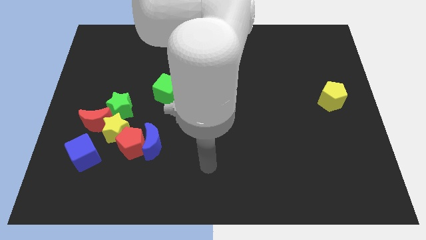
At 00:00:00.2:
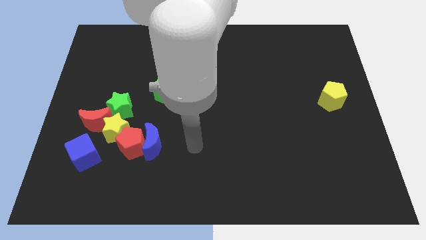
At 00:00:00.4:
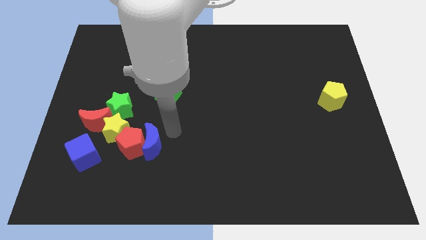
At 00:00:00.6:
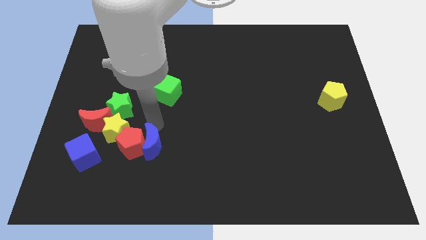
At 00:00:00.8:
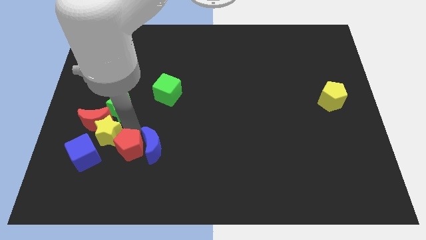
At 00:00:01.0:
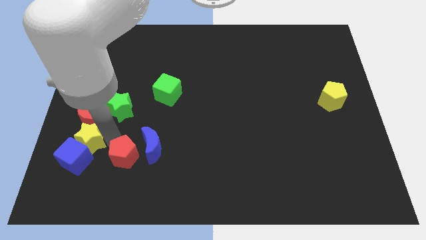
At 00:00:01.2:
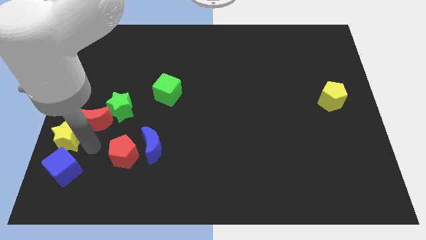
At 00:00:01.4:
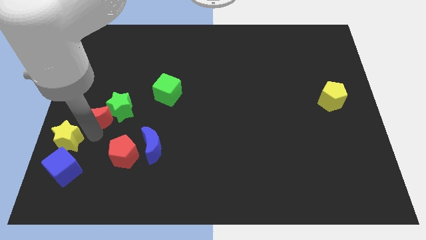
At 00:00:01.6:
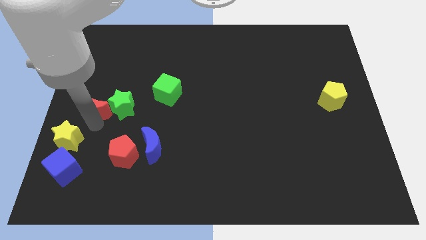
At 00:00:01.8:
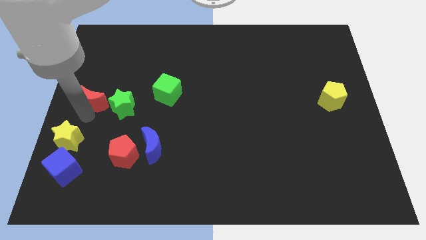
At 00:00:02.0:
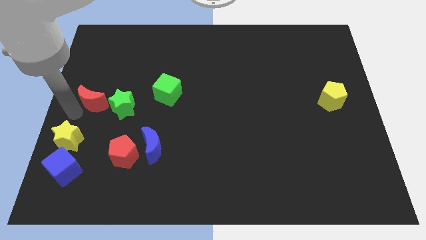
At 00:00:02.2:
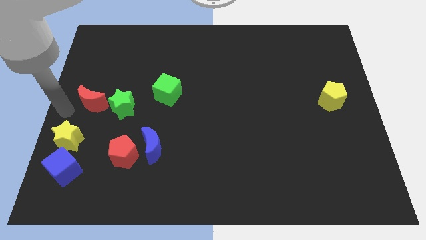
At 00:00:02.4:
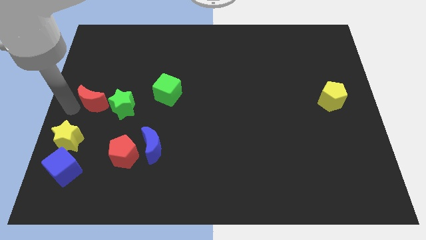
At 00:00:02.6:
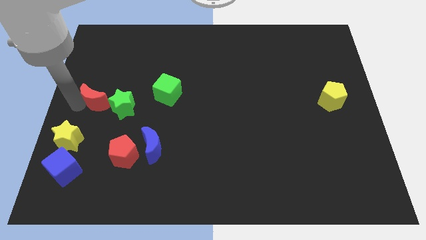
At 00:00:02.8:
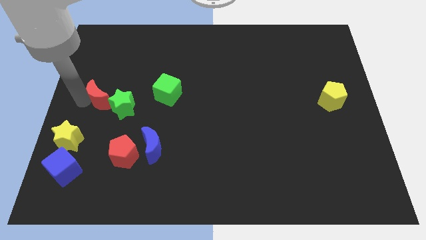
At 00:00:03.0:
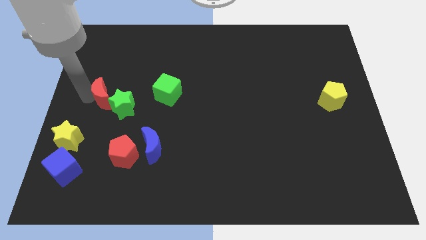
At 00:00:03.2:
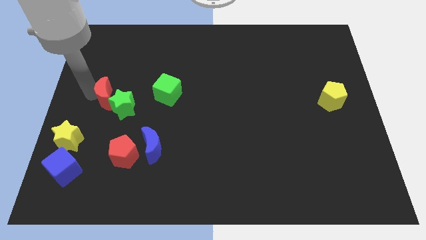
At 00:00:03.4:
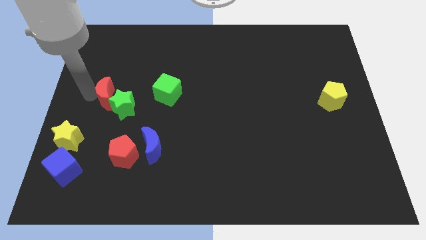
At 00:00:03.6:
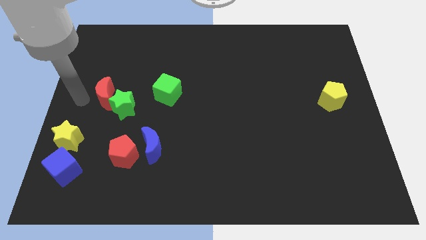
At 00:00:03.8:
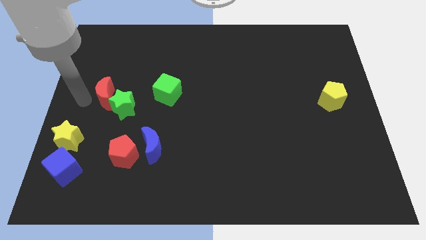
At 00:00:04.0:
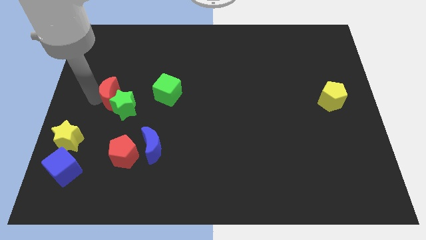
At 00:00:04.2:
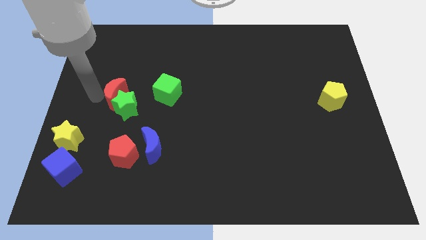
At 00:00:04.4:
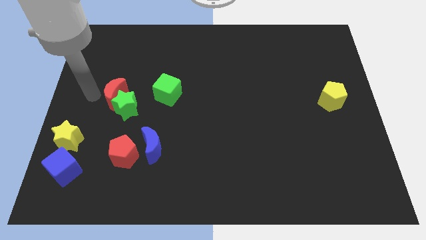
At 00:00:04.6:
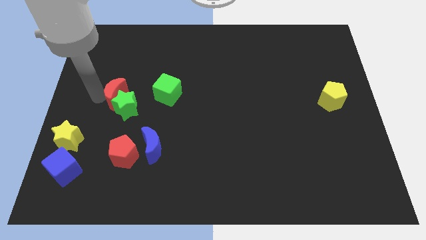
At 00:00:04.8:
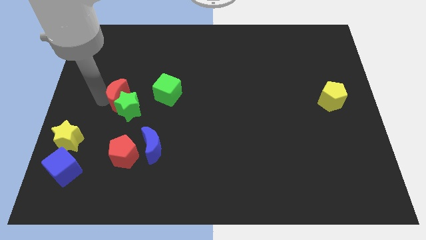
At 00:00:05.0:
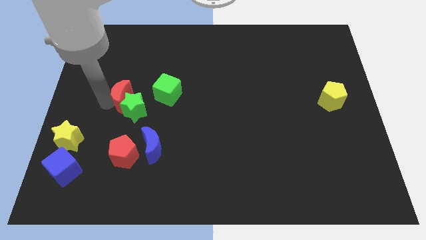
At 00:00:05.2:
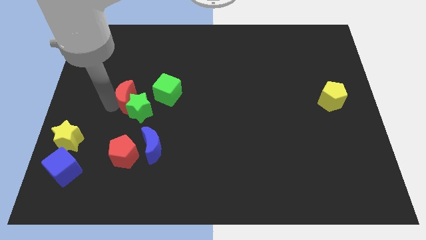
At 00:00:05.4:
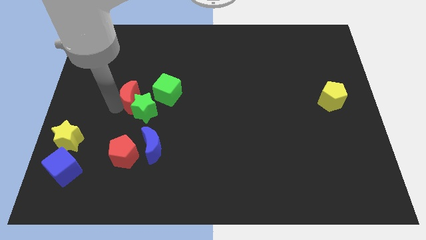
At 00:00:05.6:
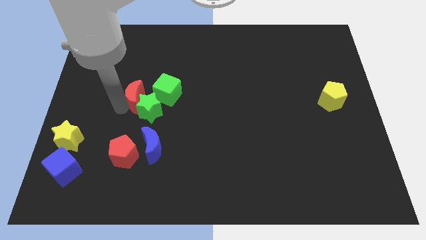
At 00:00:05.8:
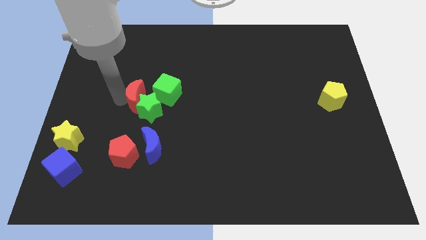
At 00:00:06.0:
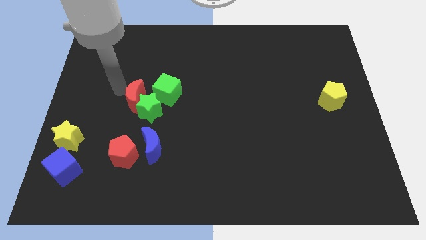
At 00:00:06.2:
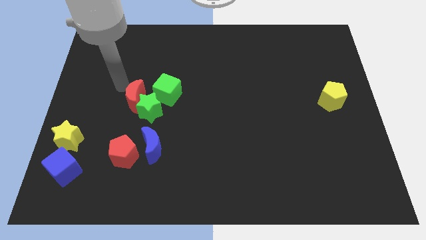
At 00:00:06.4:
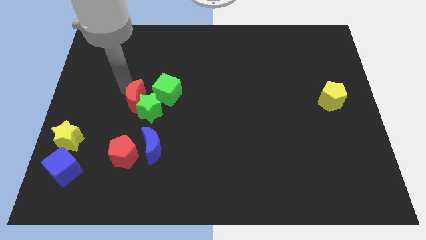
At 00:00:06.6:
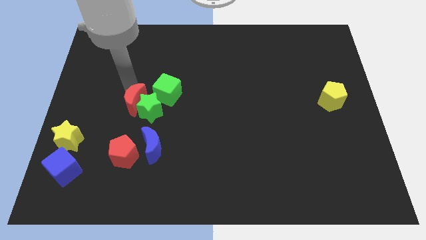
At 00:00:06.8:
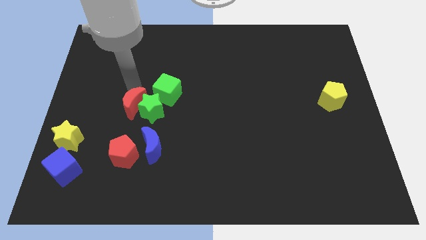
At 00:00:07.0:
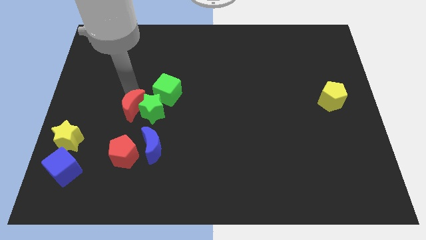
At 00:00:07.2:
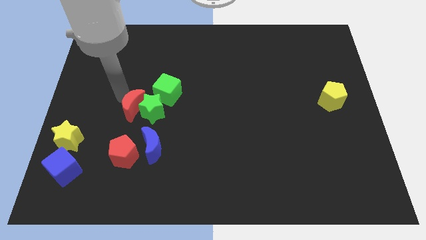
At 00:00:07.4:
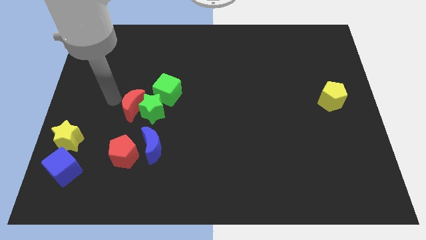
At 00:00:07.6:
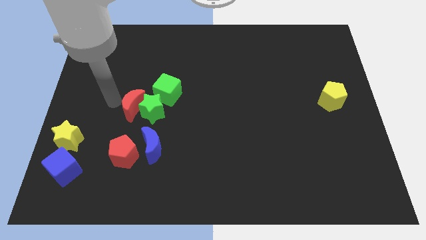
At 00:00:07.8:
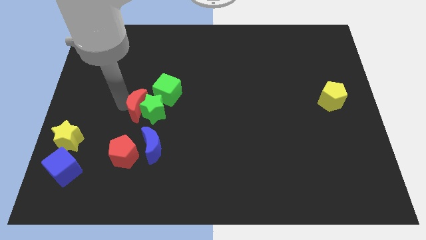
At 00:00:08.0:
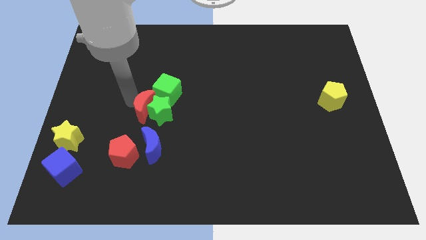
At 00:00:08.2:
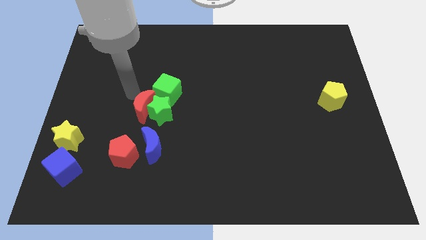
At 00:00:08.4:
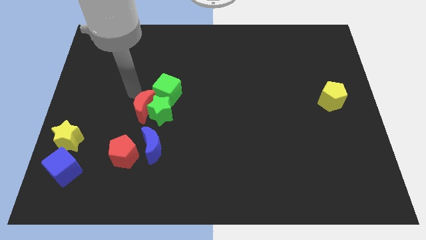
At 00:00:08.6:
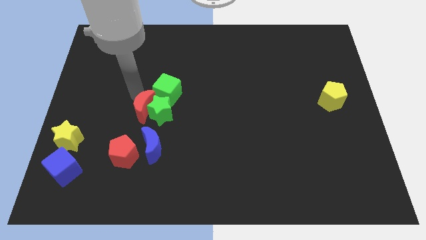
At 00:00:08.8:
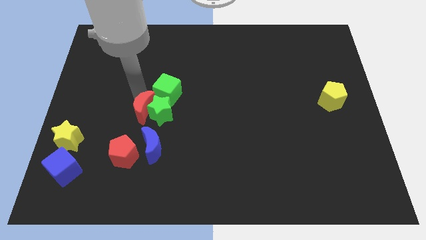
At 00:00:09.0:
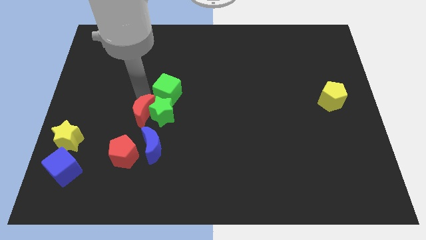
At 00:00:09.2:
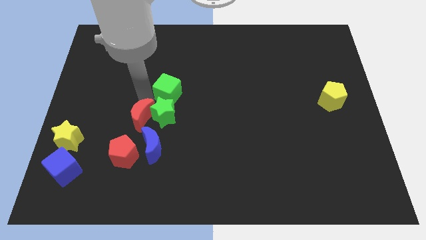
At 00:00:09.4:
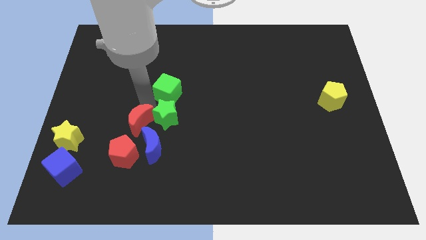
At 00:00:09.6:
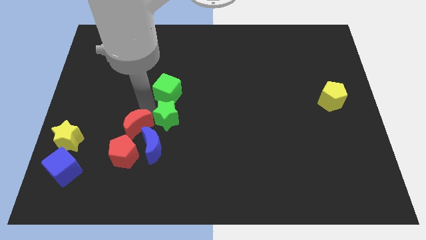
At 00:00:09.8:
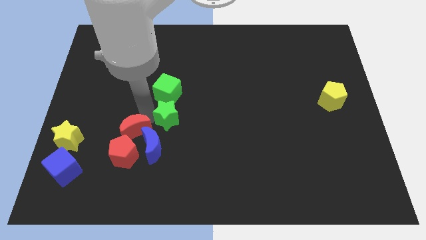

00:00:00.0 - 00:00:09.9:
push the red moon next to the blue moon

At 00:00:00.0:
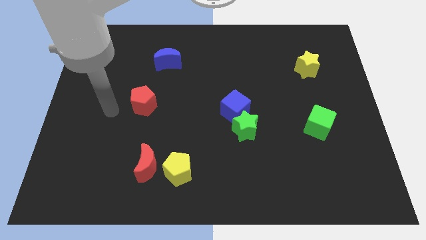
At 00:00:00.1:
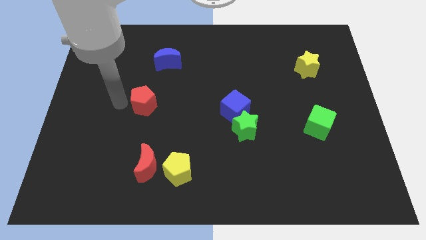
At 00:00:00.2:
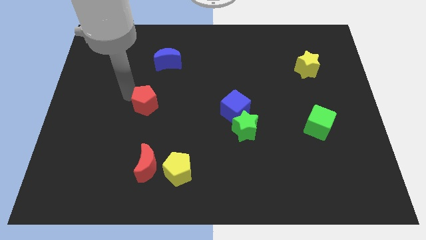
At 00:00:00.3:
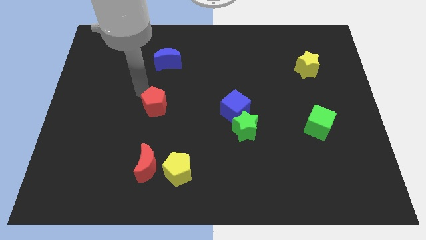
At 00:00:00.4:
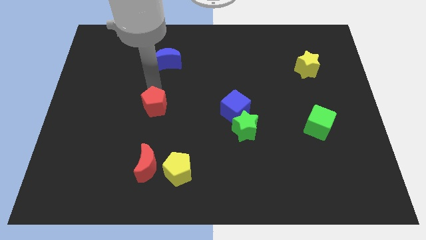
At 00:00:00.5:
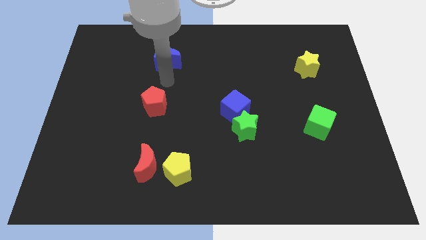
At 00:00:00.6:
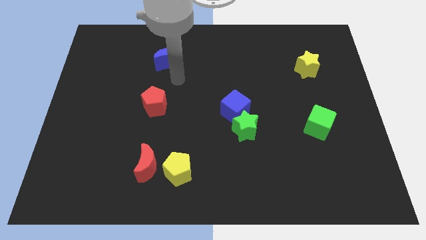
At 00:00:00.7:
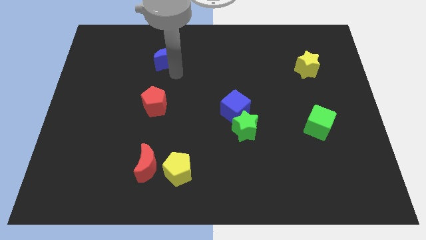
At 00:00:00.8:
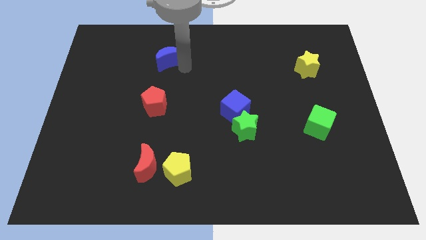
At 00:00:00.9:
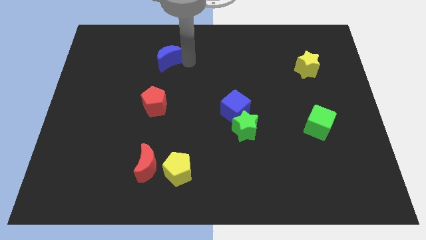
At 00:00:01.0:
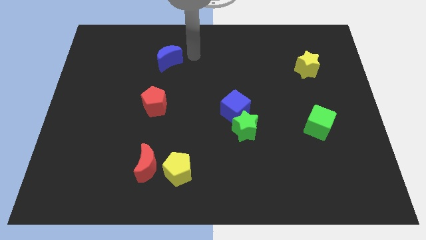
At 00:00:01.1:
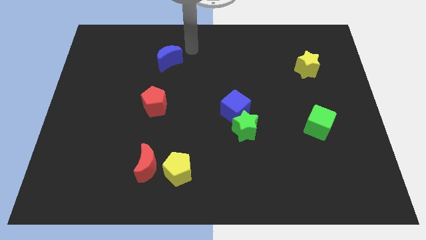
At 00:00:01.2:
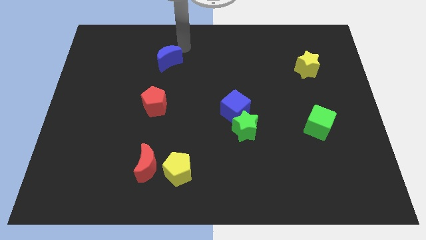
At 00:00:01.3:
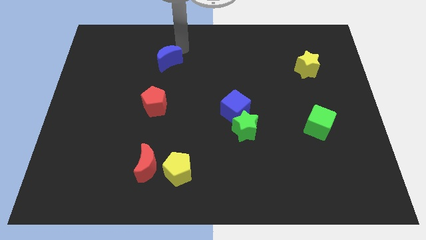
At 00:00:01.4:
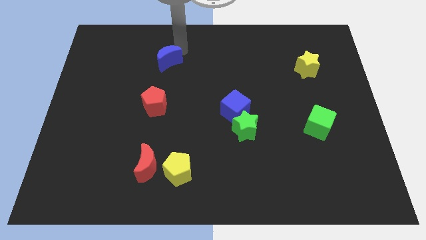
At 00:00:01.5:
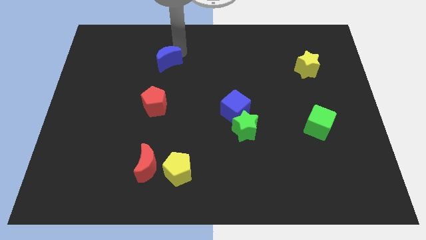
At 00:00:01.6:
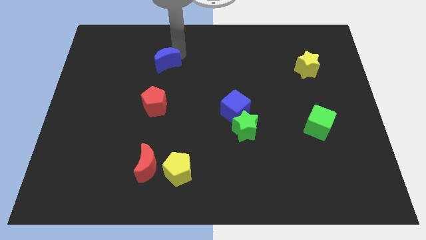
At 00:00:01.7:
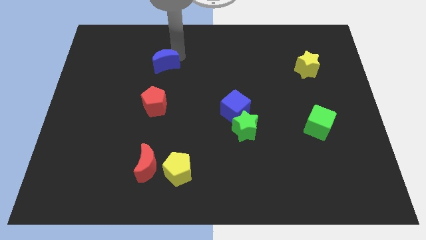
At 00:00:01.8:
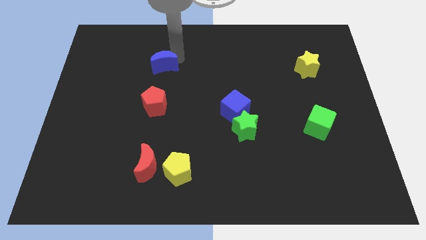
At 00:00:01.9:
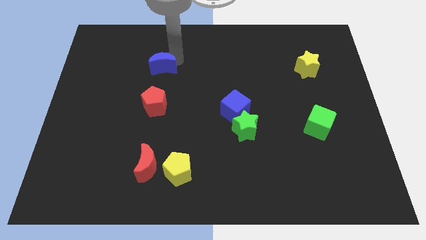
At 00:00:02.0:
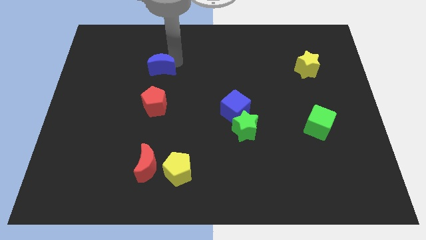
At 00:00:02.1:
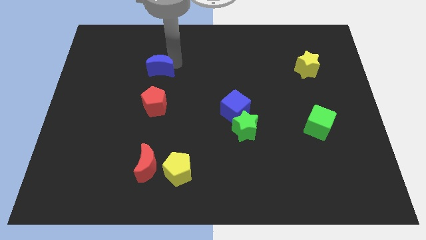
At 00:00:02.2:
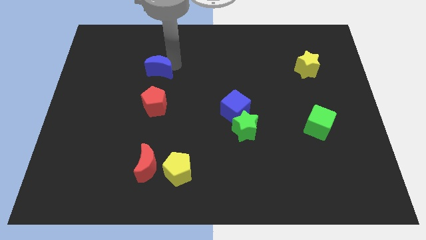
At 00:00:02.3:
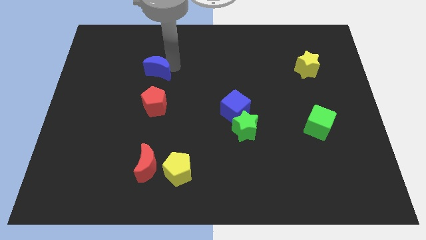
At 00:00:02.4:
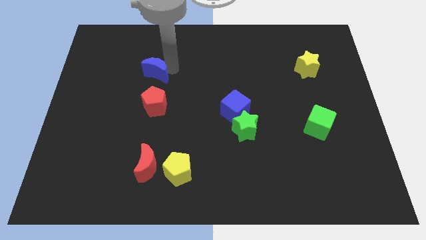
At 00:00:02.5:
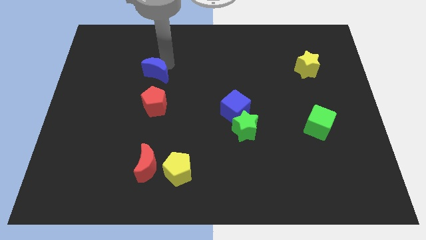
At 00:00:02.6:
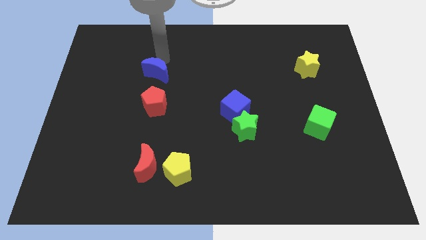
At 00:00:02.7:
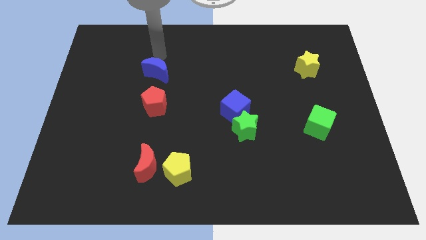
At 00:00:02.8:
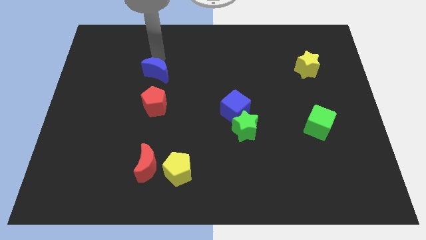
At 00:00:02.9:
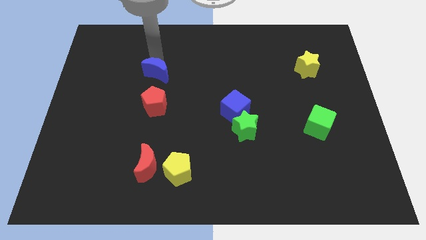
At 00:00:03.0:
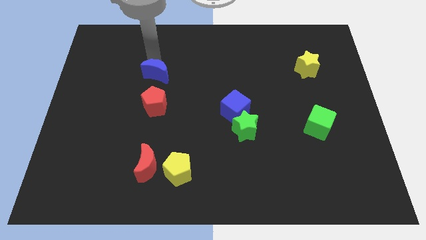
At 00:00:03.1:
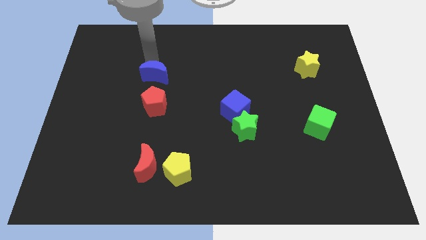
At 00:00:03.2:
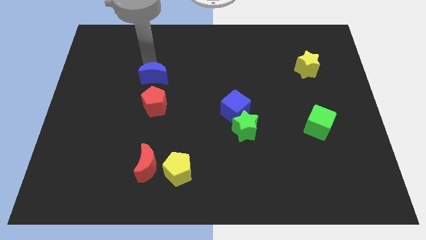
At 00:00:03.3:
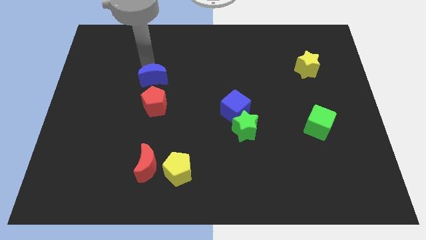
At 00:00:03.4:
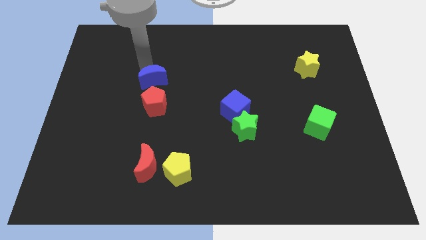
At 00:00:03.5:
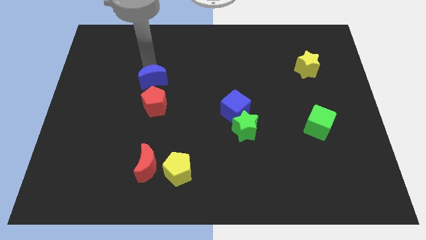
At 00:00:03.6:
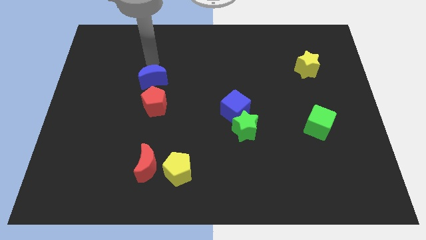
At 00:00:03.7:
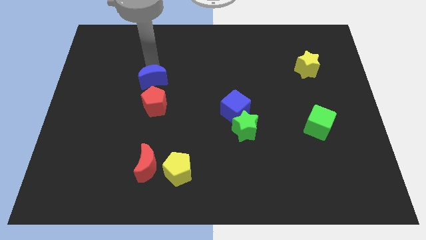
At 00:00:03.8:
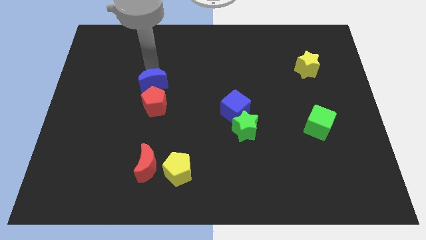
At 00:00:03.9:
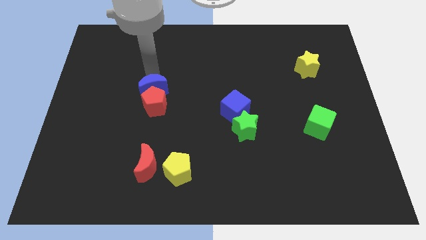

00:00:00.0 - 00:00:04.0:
push the blue moon to the red pentagon
